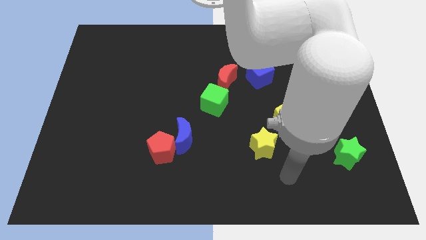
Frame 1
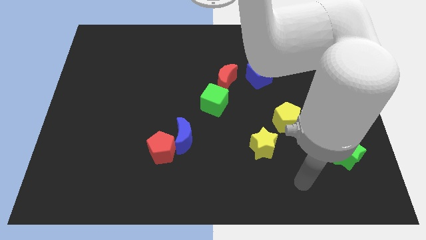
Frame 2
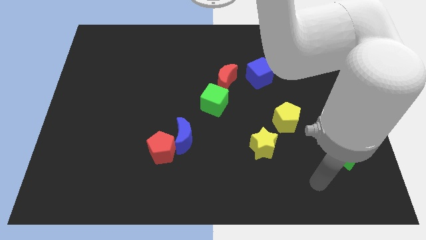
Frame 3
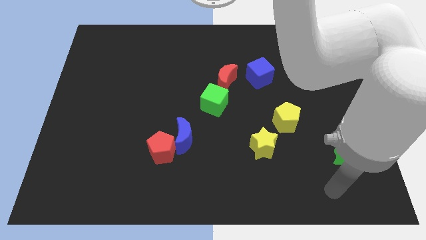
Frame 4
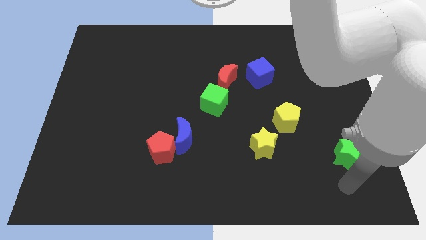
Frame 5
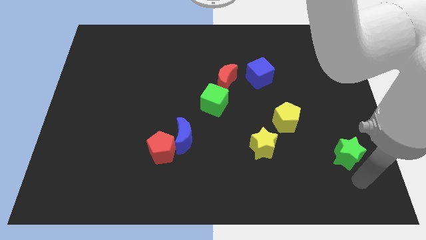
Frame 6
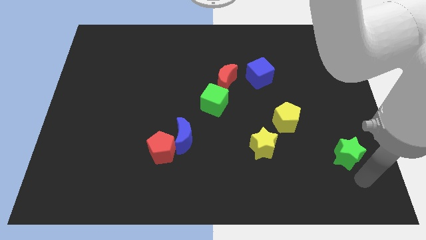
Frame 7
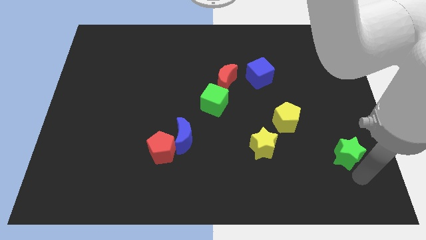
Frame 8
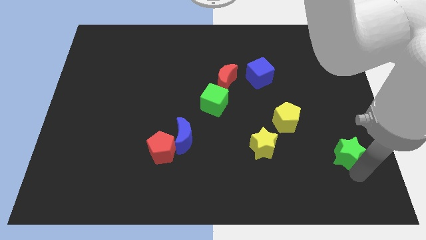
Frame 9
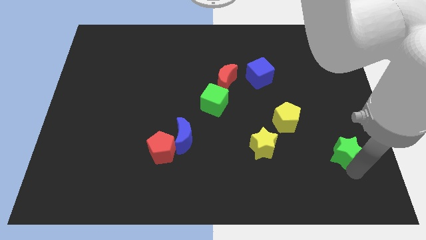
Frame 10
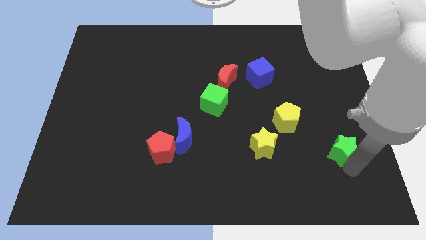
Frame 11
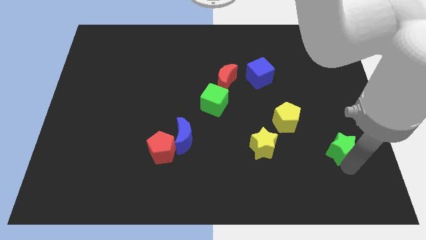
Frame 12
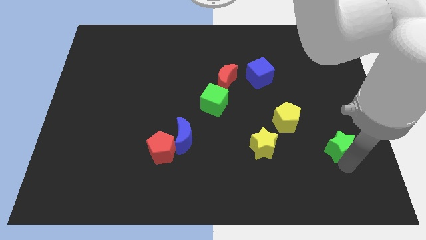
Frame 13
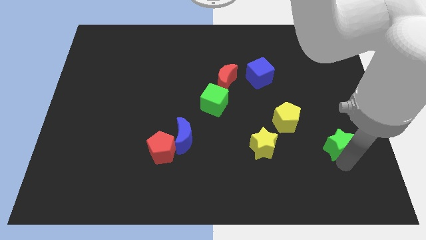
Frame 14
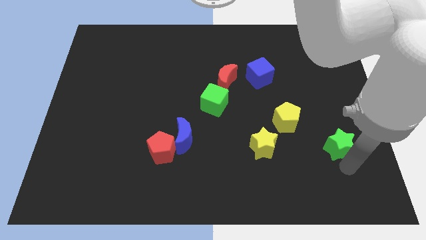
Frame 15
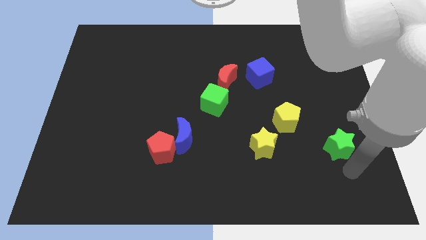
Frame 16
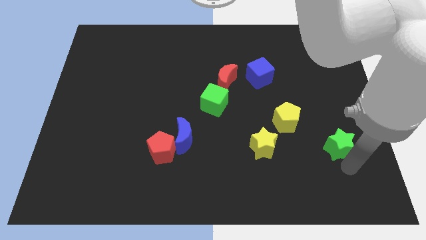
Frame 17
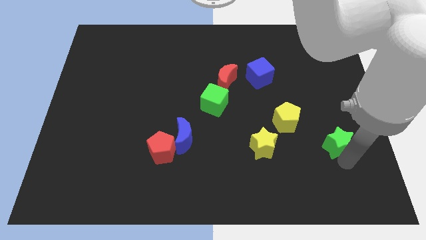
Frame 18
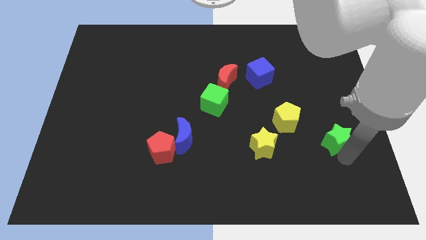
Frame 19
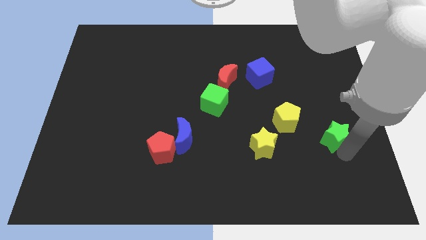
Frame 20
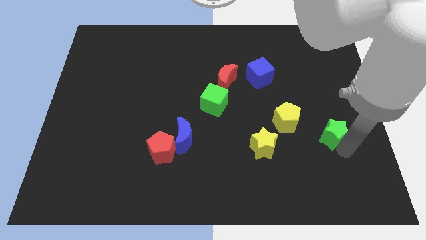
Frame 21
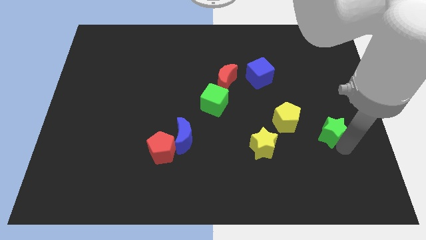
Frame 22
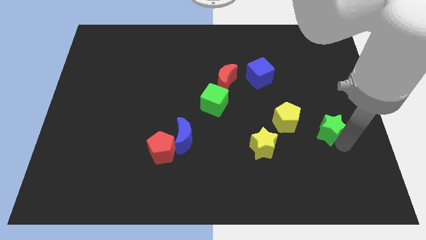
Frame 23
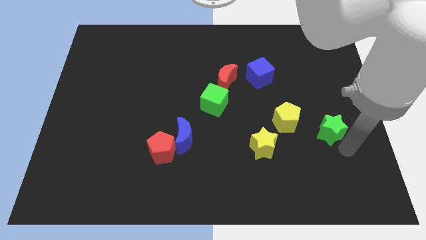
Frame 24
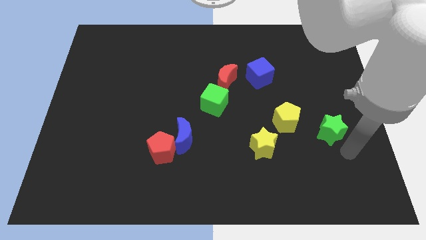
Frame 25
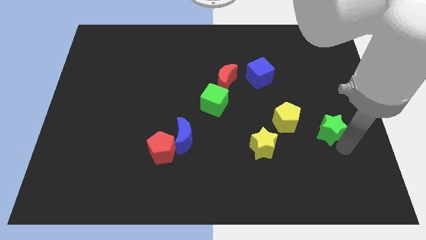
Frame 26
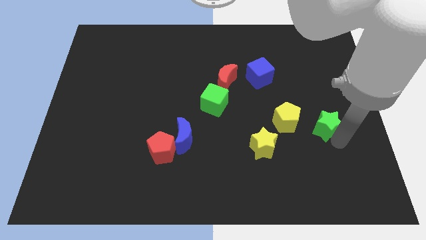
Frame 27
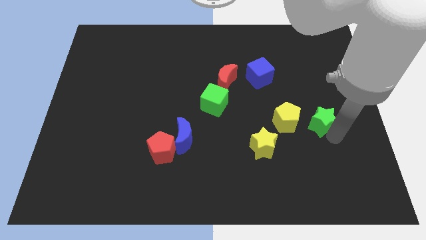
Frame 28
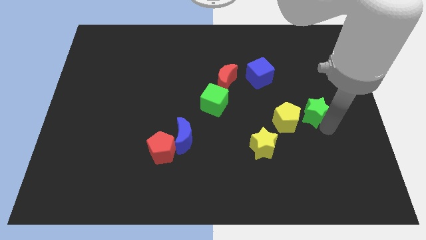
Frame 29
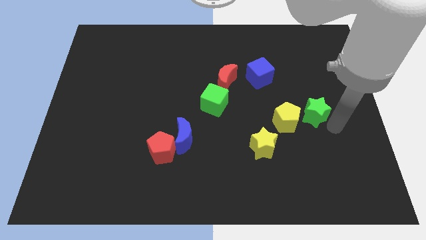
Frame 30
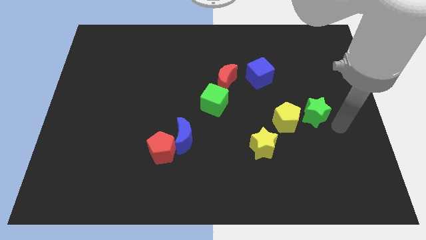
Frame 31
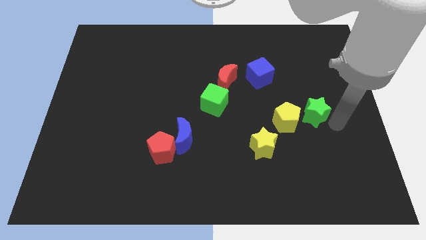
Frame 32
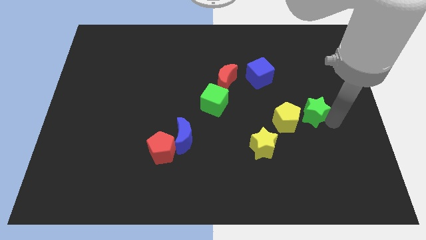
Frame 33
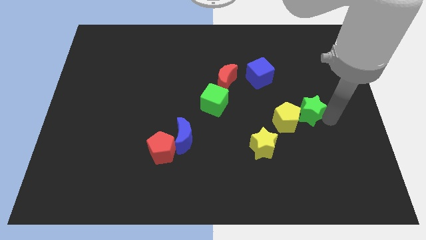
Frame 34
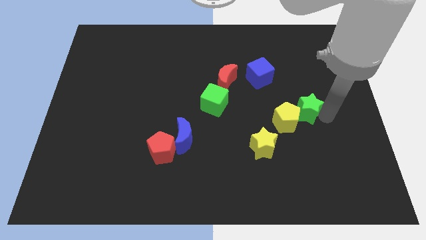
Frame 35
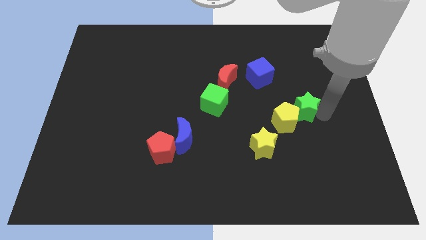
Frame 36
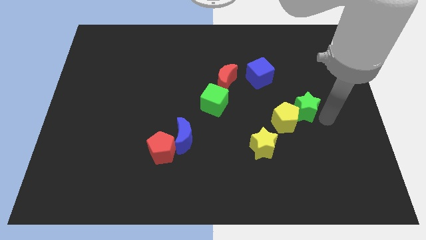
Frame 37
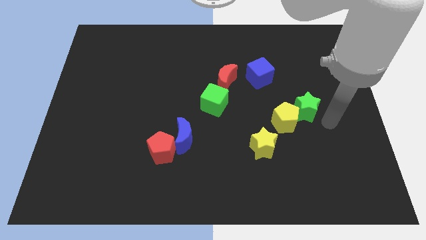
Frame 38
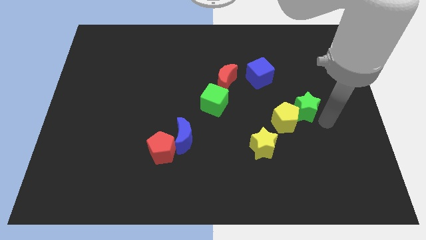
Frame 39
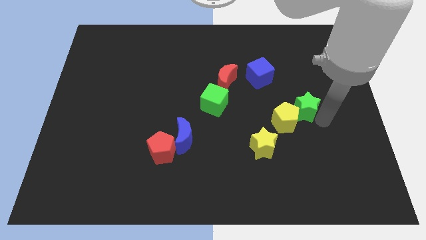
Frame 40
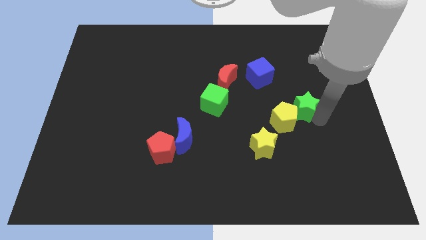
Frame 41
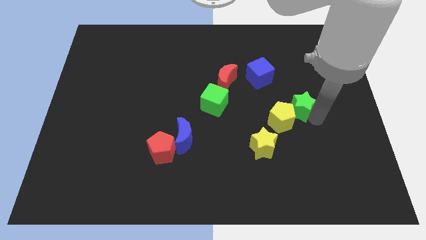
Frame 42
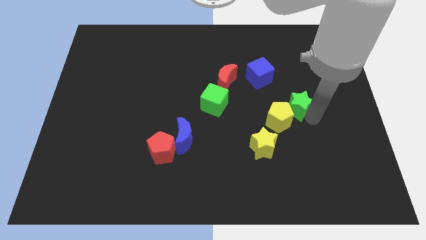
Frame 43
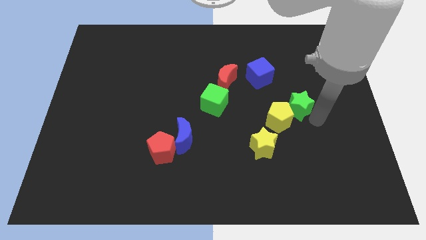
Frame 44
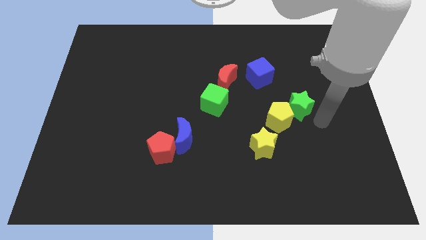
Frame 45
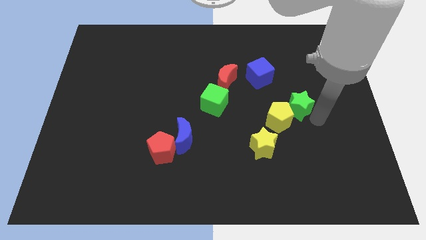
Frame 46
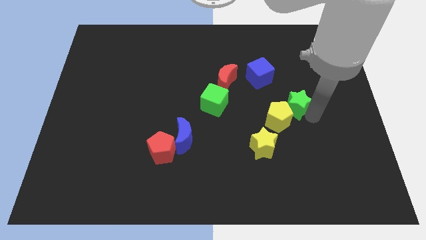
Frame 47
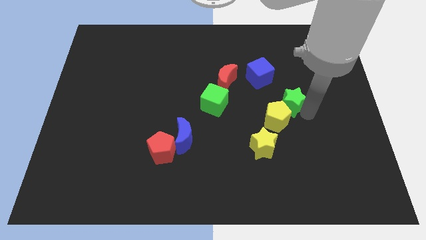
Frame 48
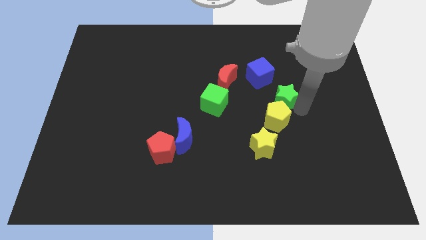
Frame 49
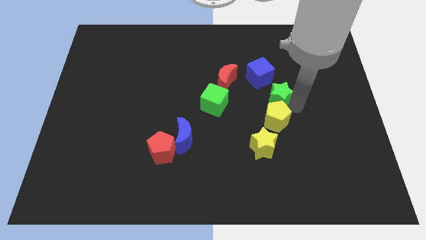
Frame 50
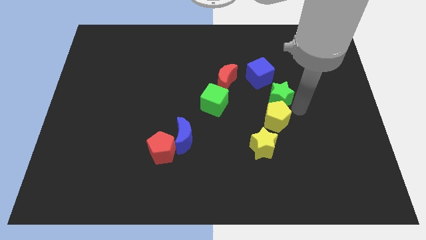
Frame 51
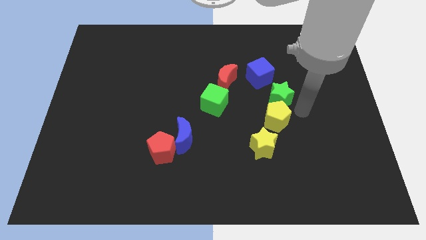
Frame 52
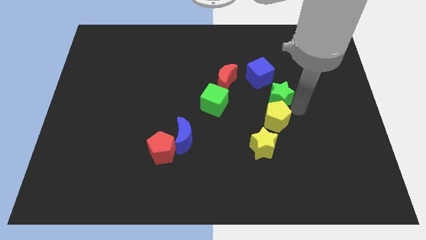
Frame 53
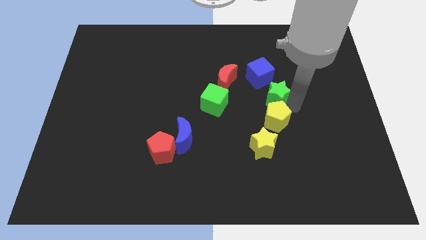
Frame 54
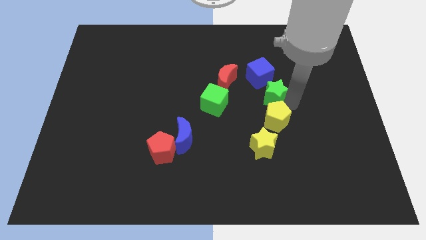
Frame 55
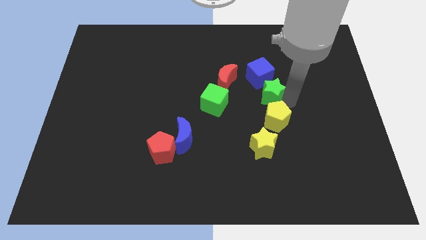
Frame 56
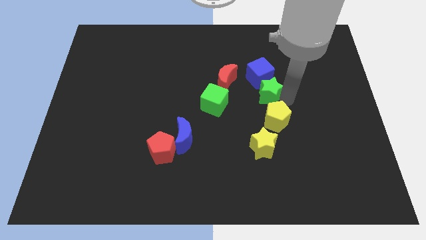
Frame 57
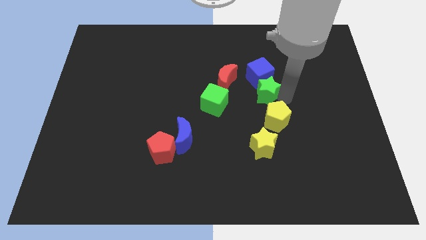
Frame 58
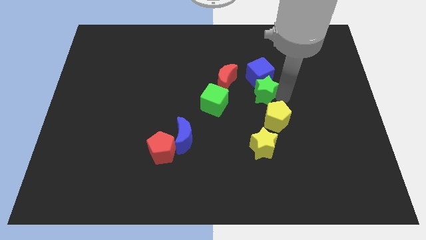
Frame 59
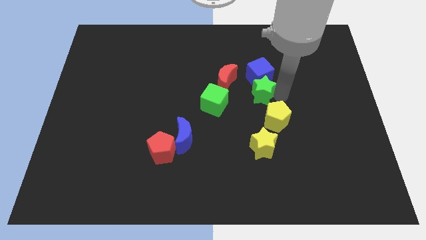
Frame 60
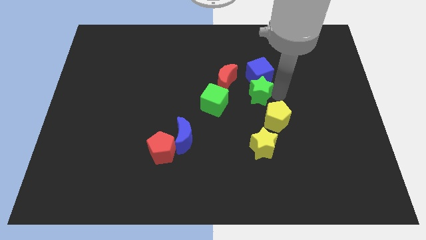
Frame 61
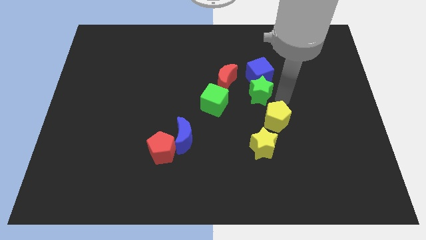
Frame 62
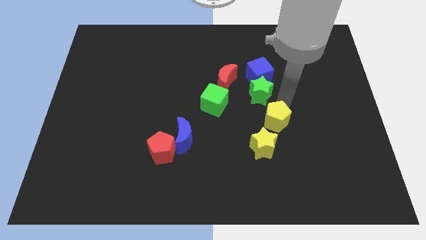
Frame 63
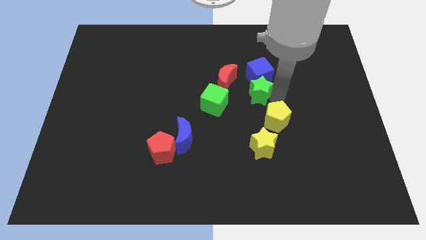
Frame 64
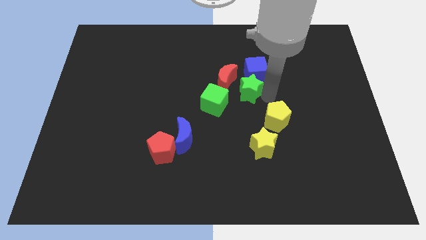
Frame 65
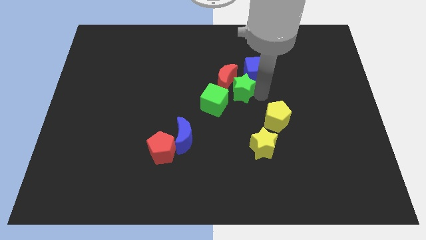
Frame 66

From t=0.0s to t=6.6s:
slide the green star towards the red moon
